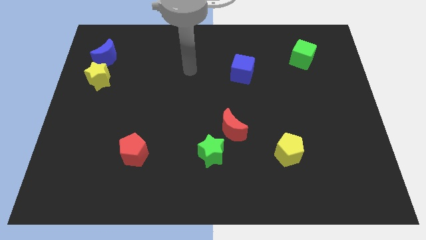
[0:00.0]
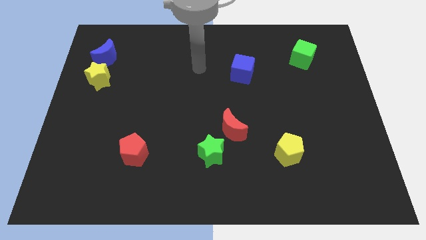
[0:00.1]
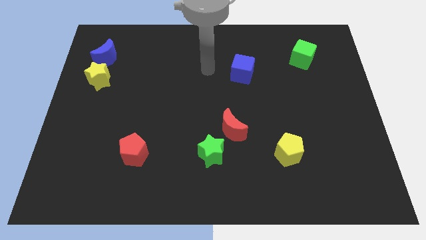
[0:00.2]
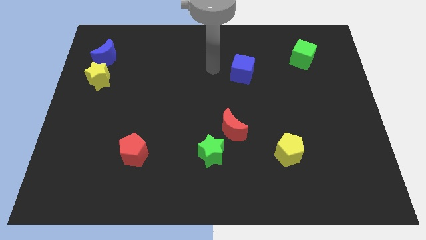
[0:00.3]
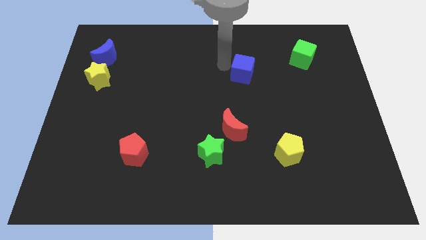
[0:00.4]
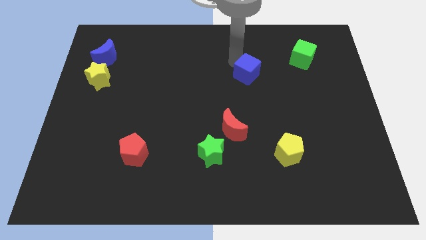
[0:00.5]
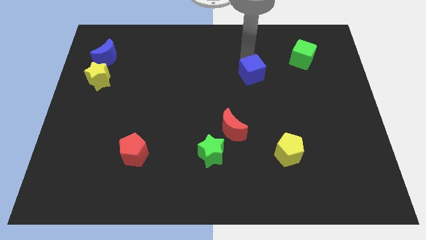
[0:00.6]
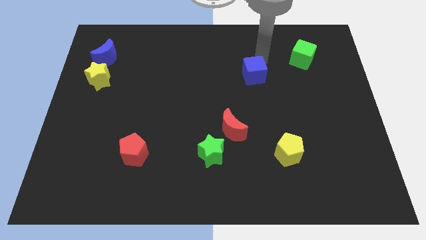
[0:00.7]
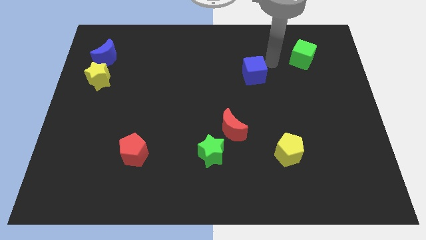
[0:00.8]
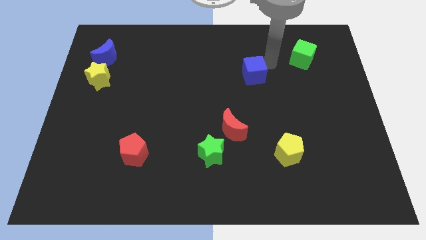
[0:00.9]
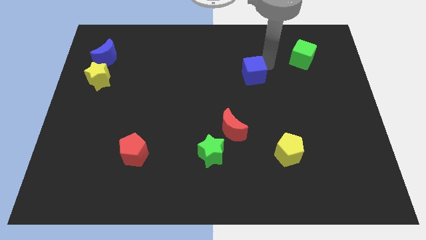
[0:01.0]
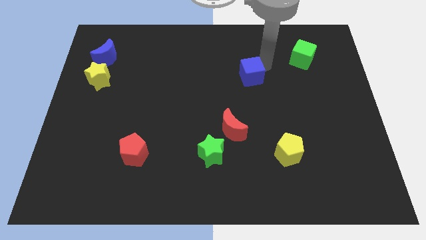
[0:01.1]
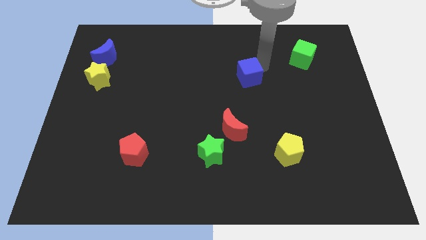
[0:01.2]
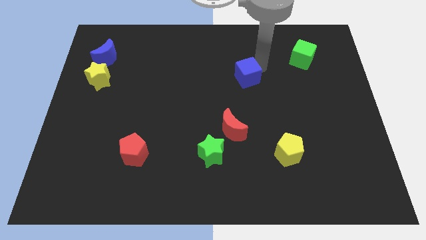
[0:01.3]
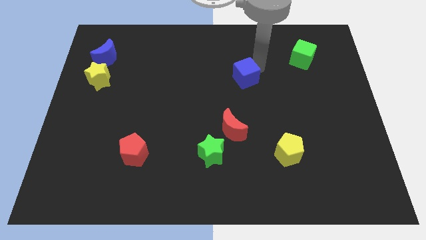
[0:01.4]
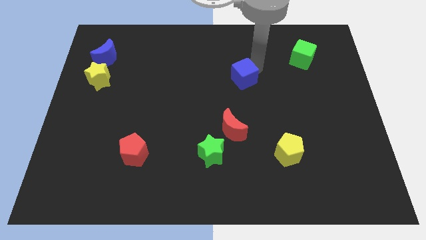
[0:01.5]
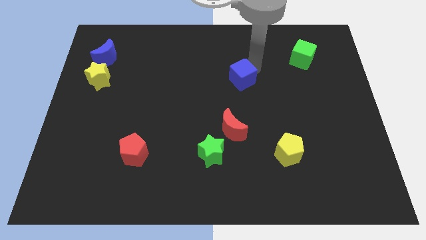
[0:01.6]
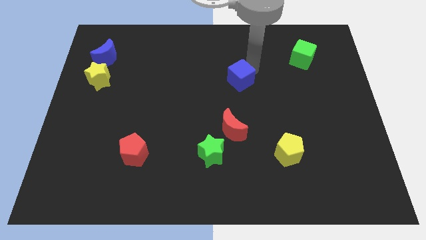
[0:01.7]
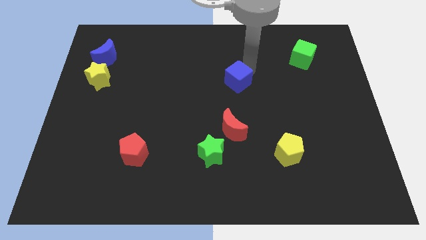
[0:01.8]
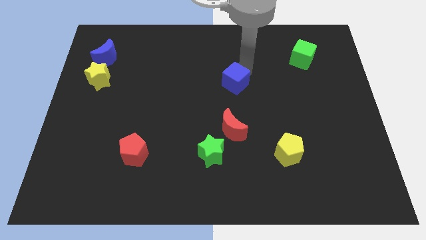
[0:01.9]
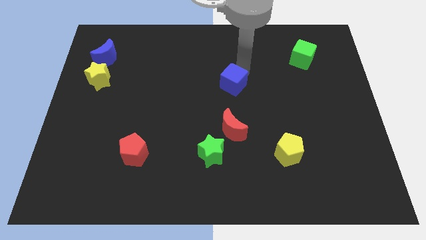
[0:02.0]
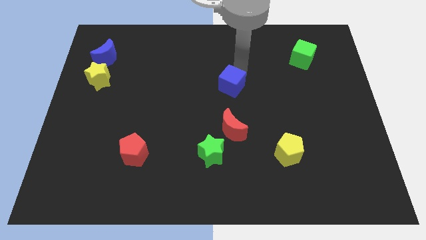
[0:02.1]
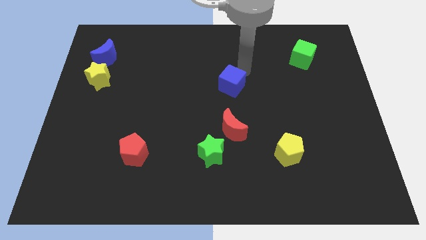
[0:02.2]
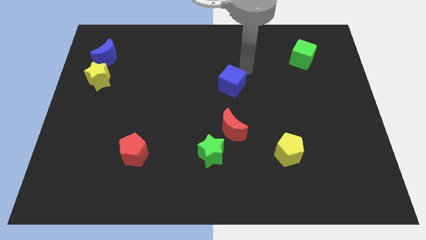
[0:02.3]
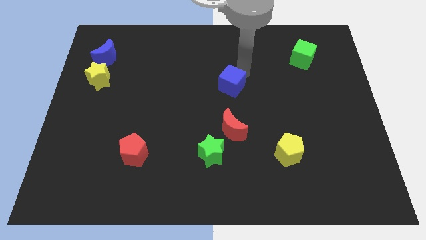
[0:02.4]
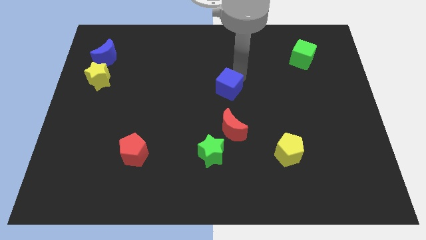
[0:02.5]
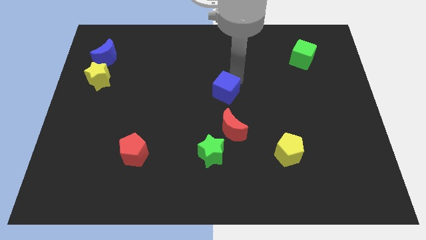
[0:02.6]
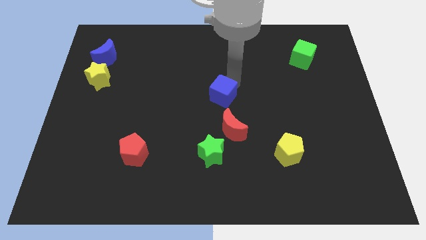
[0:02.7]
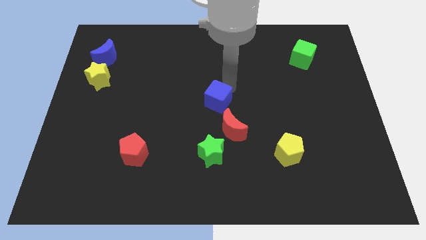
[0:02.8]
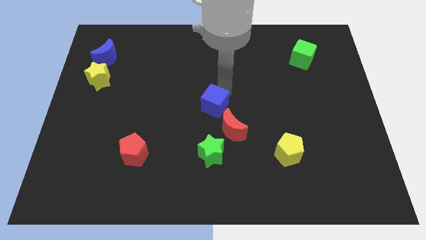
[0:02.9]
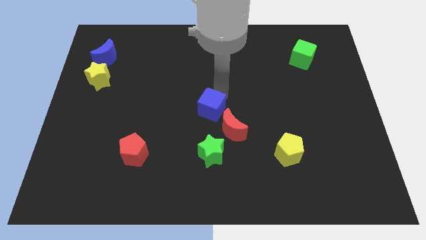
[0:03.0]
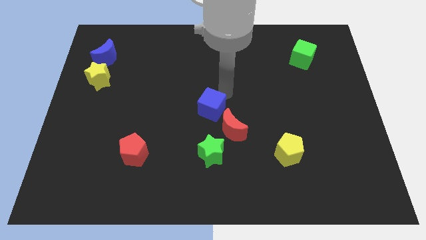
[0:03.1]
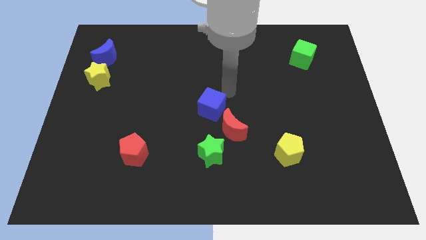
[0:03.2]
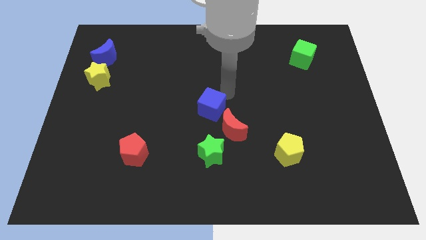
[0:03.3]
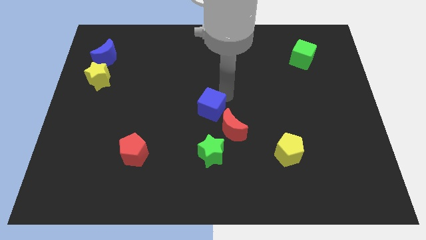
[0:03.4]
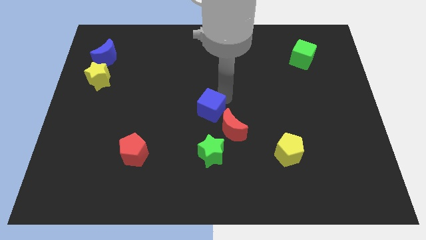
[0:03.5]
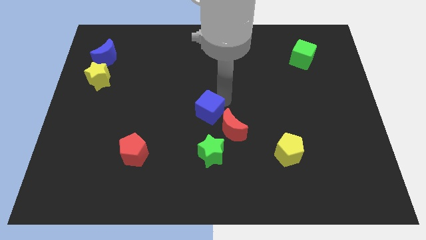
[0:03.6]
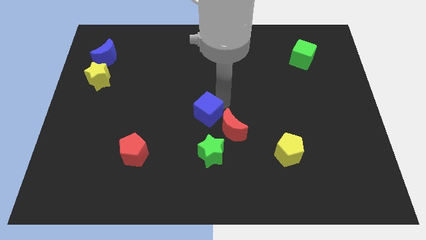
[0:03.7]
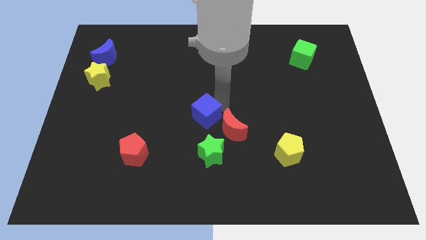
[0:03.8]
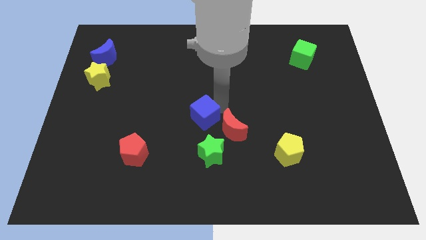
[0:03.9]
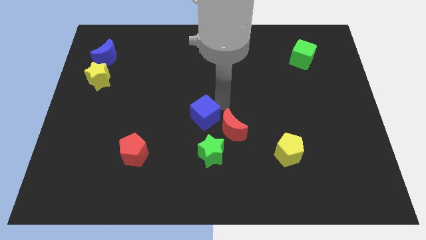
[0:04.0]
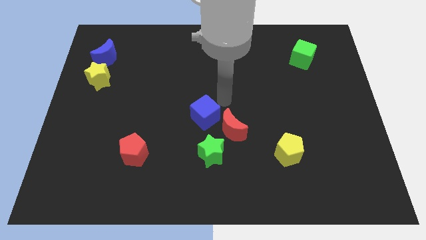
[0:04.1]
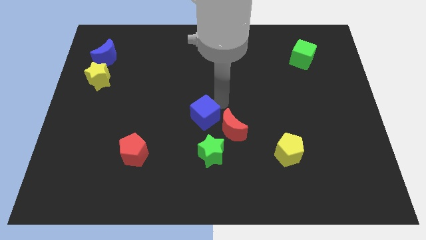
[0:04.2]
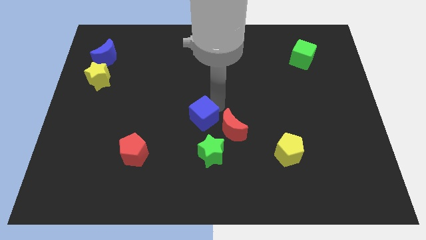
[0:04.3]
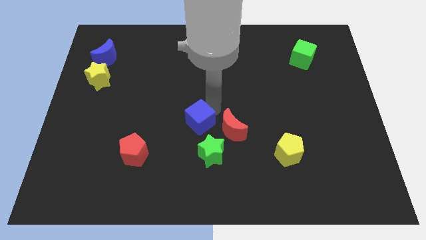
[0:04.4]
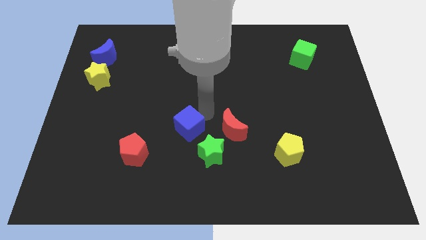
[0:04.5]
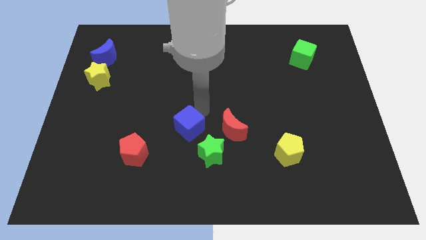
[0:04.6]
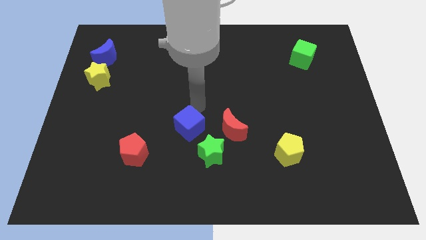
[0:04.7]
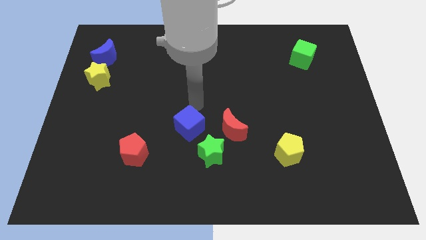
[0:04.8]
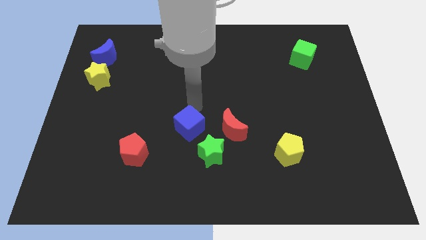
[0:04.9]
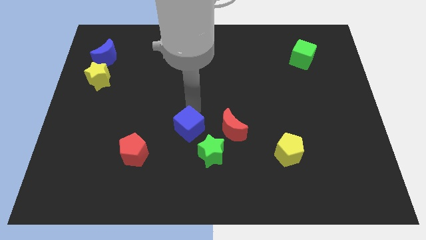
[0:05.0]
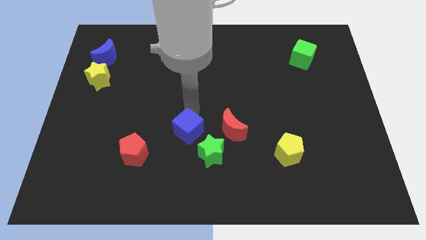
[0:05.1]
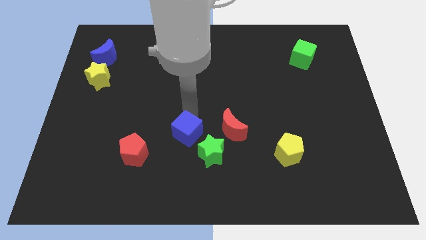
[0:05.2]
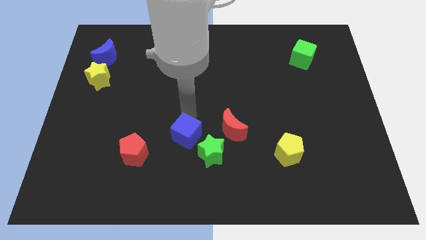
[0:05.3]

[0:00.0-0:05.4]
push the blue cube right of the red pentagon

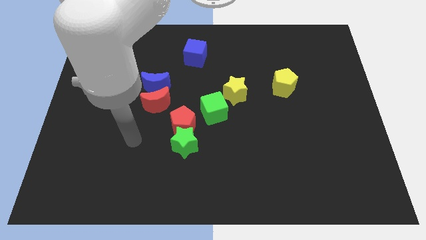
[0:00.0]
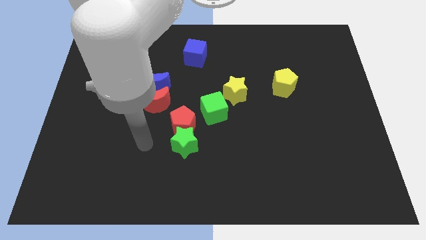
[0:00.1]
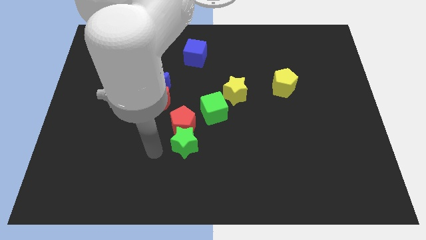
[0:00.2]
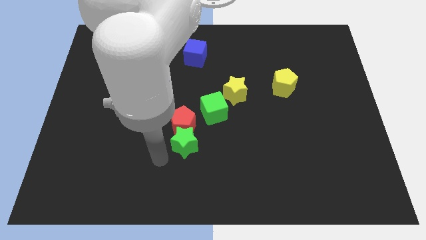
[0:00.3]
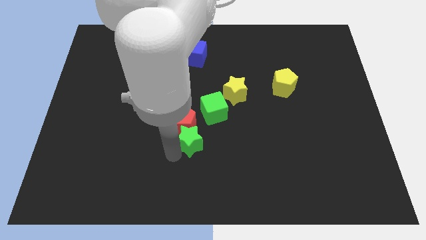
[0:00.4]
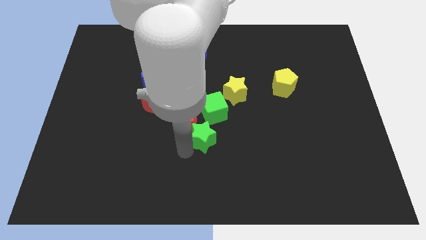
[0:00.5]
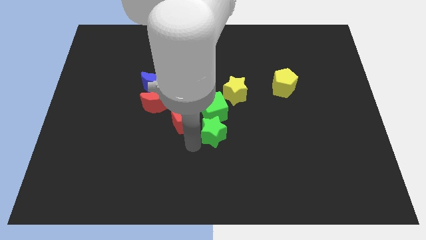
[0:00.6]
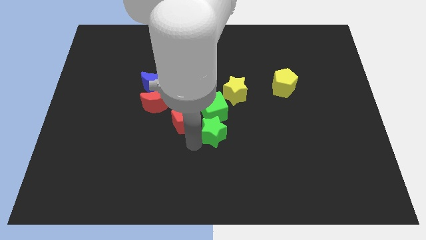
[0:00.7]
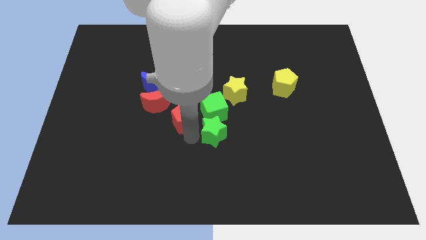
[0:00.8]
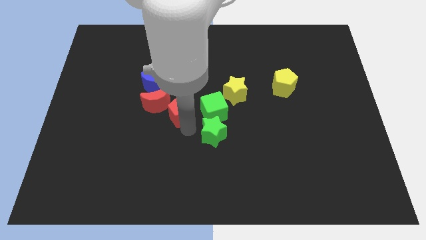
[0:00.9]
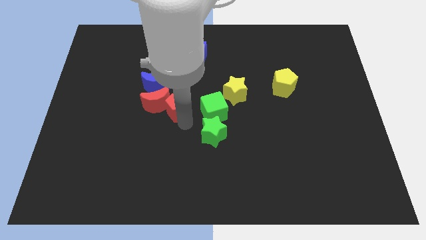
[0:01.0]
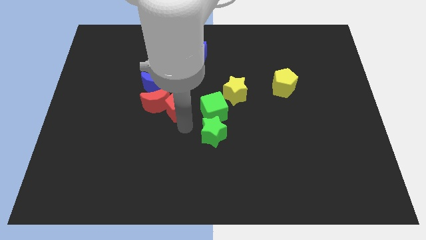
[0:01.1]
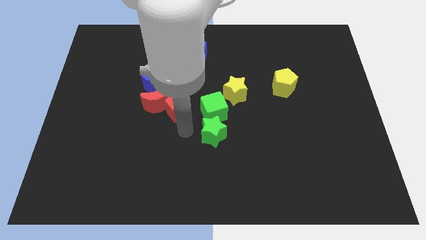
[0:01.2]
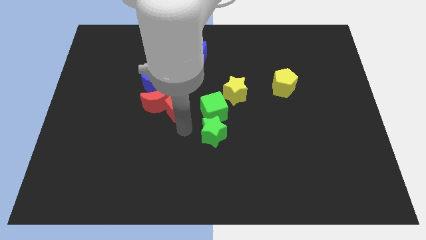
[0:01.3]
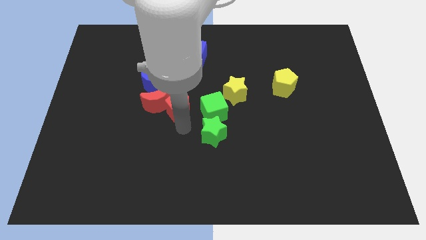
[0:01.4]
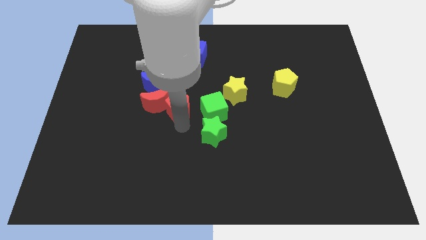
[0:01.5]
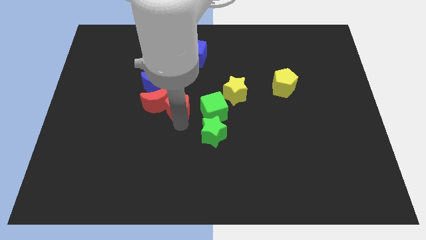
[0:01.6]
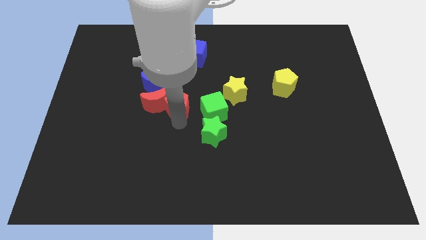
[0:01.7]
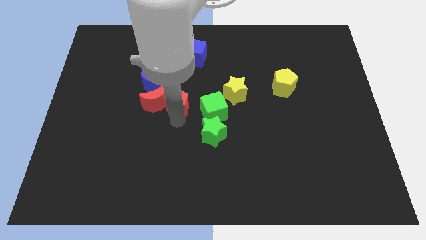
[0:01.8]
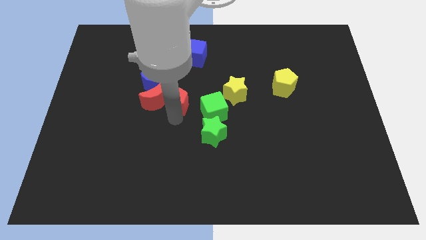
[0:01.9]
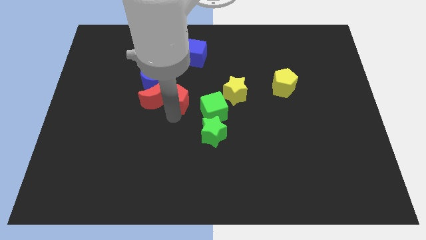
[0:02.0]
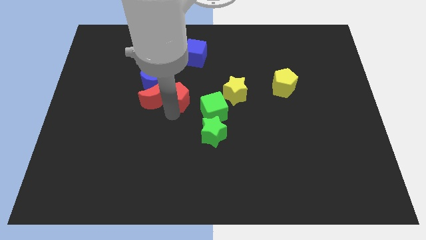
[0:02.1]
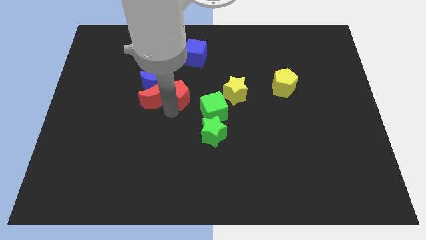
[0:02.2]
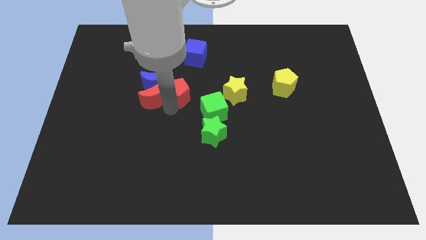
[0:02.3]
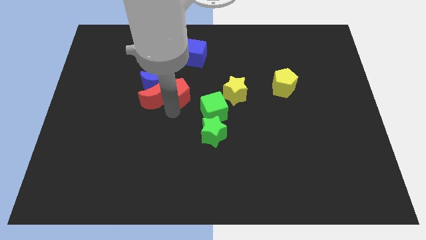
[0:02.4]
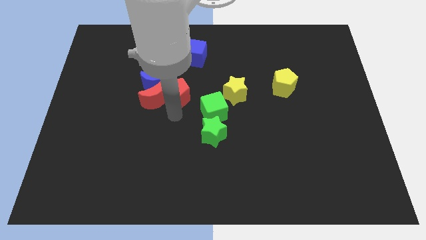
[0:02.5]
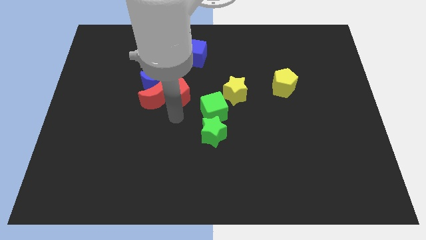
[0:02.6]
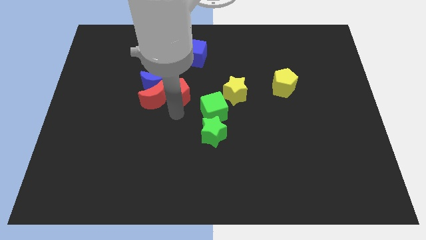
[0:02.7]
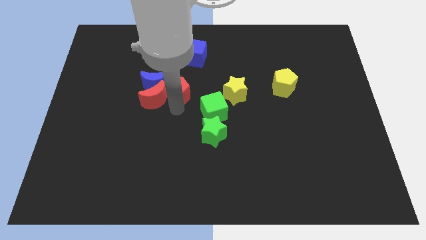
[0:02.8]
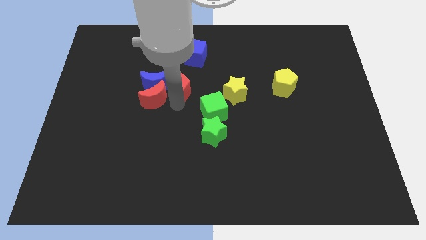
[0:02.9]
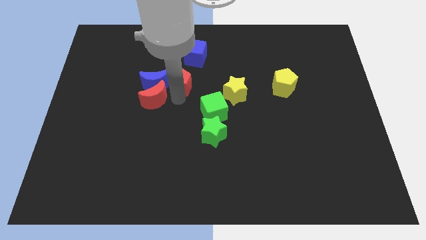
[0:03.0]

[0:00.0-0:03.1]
move the red pentagon diagonally up and to the right of the blue moon
